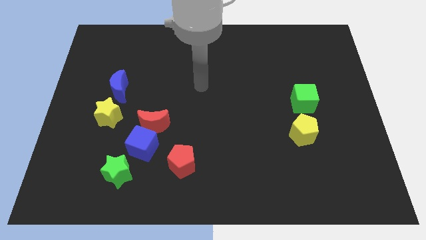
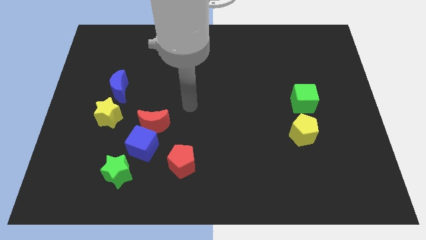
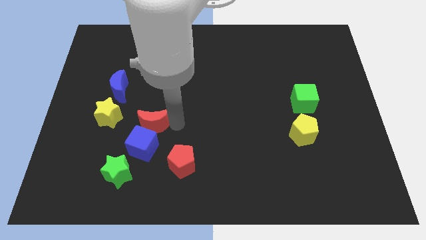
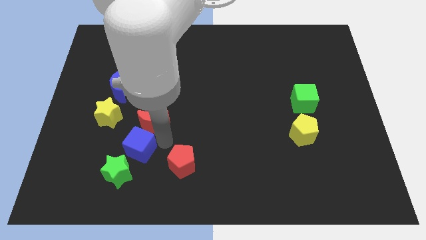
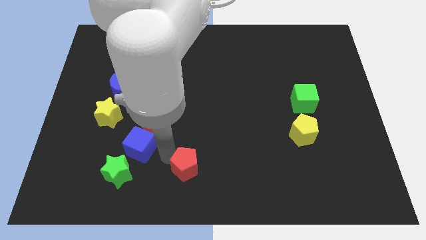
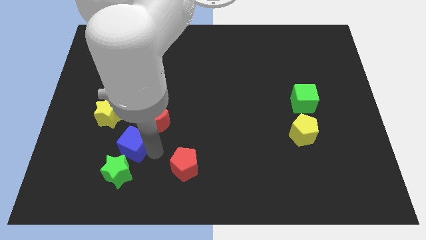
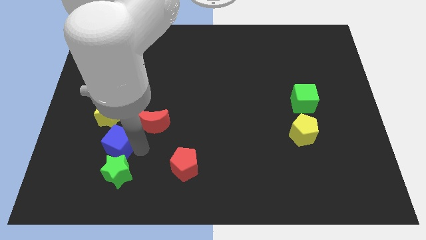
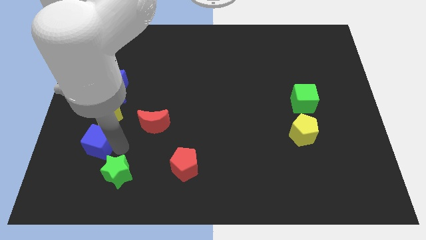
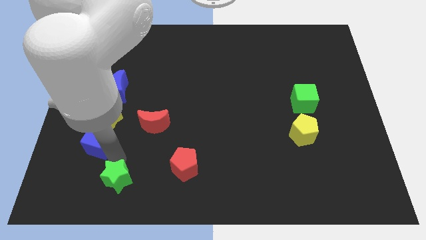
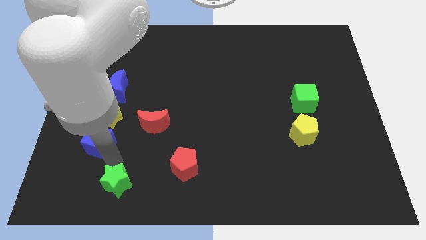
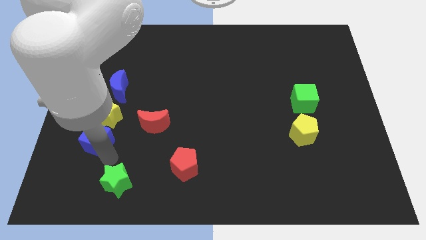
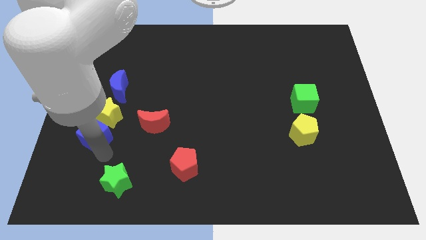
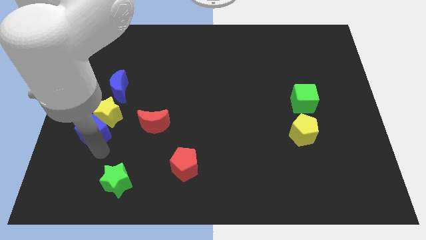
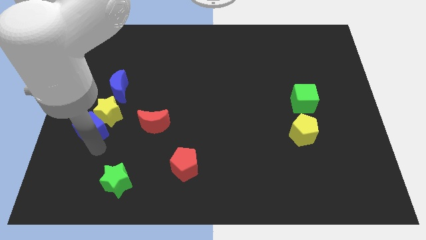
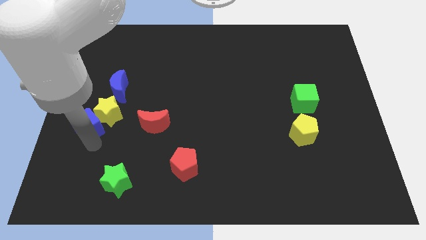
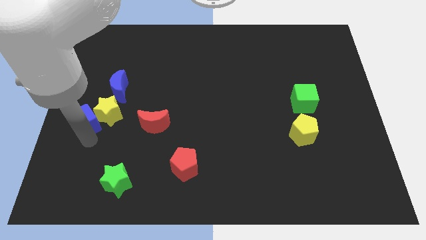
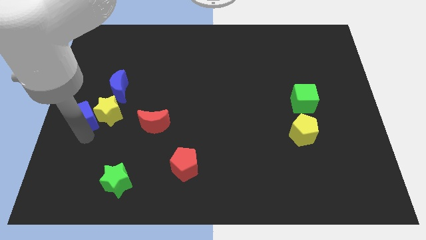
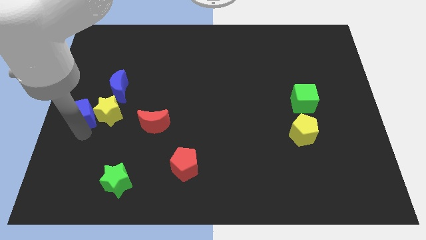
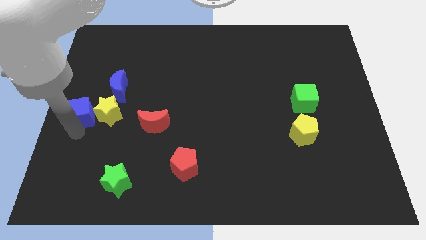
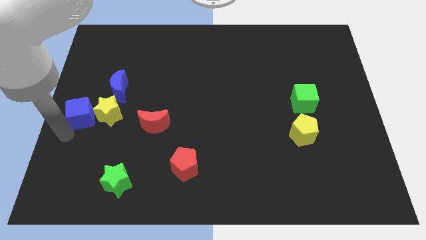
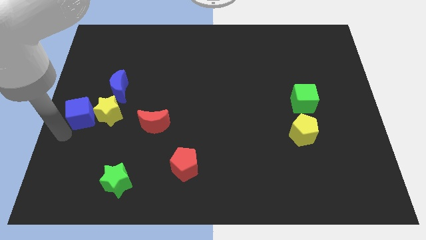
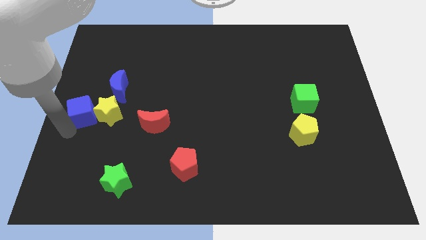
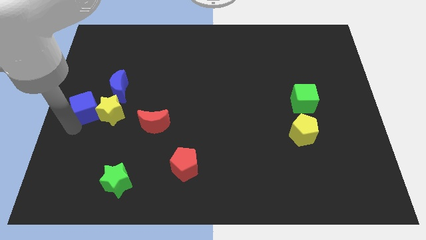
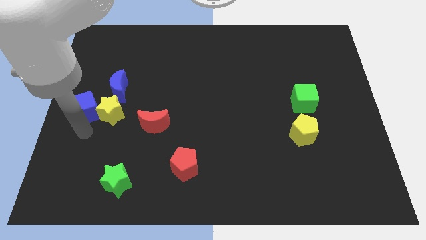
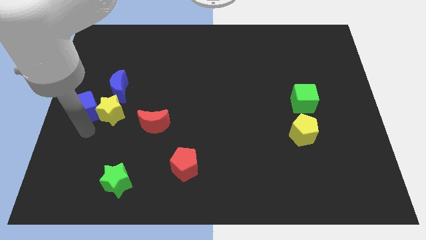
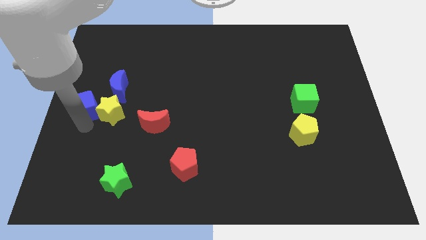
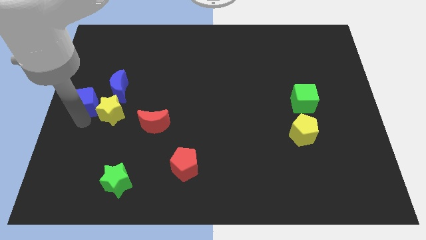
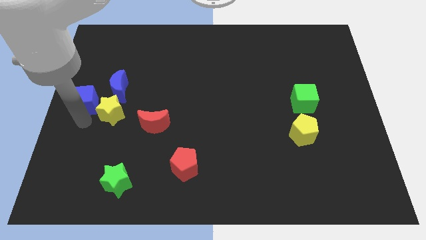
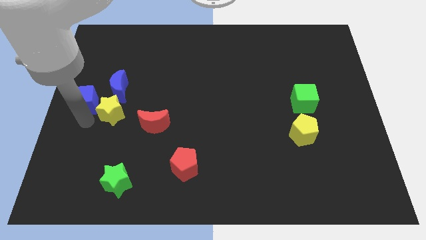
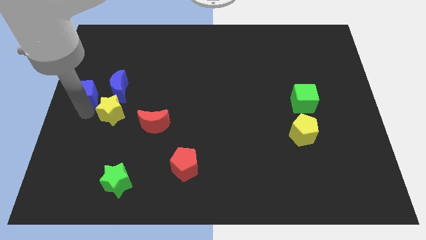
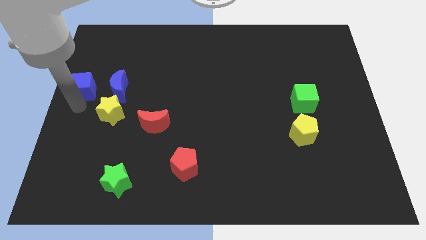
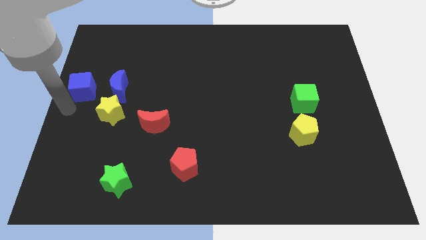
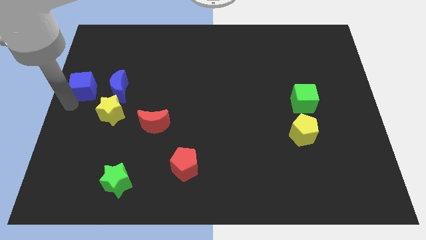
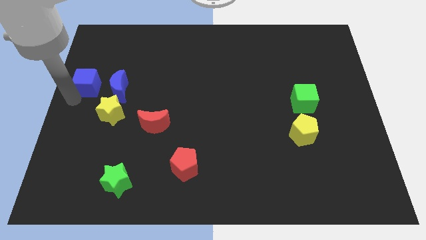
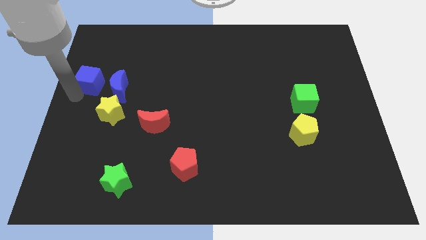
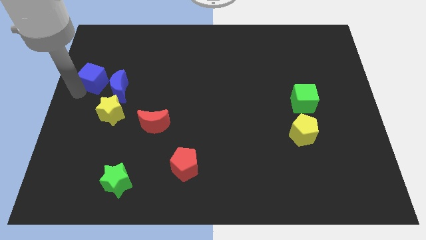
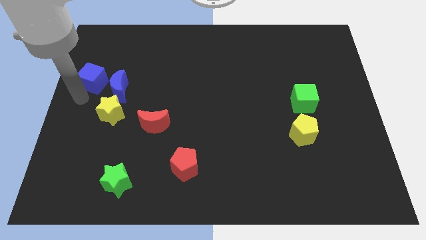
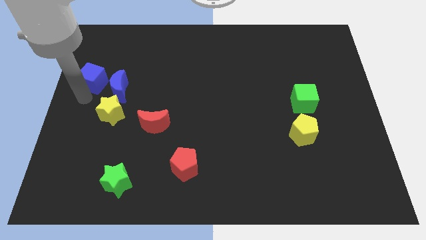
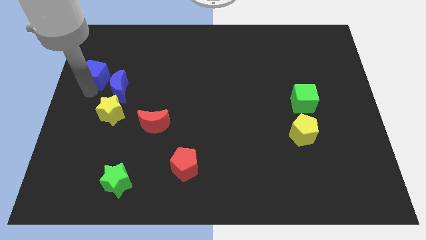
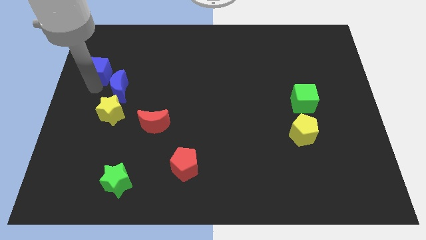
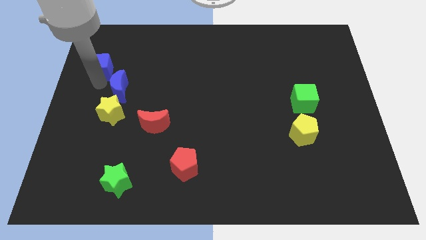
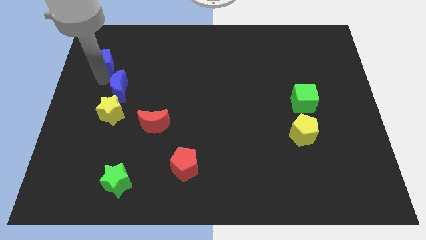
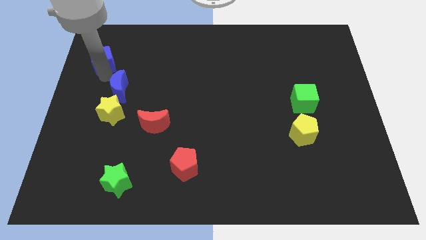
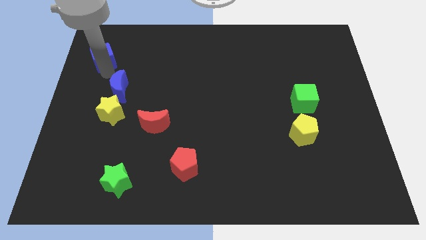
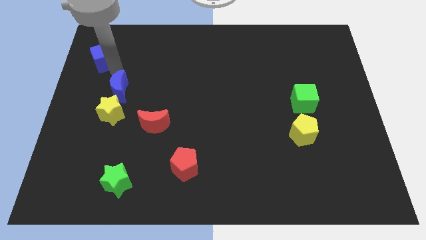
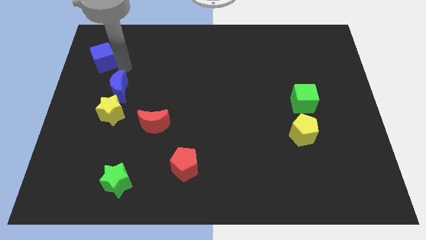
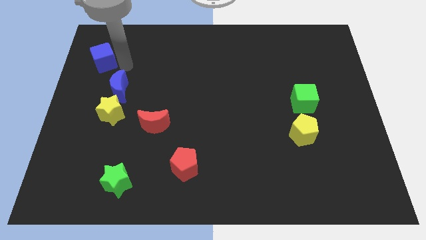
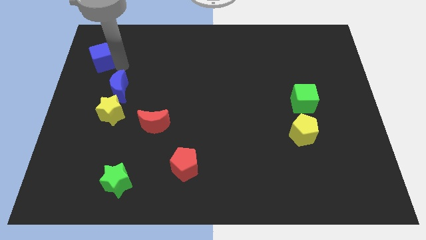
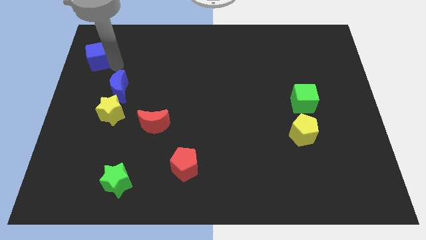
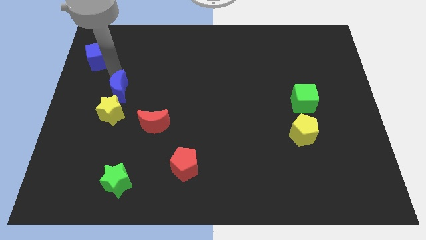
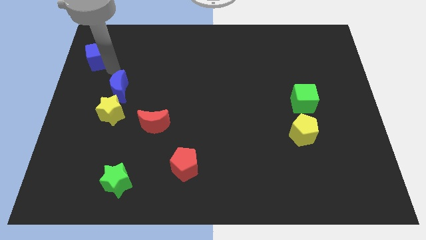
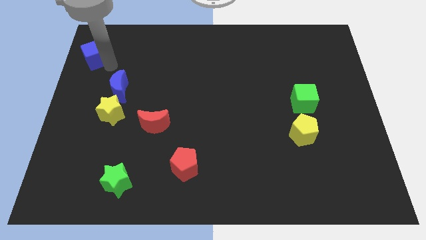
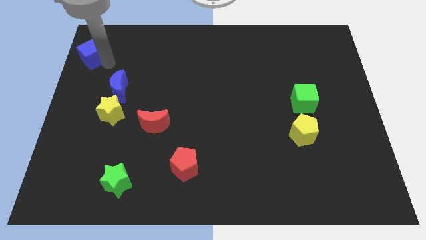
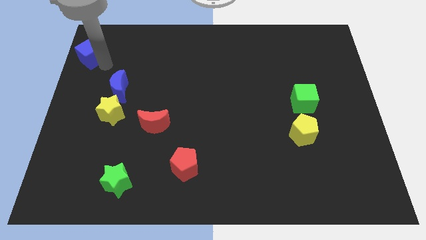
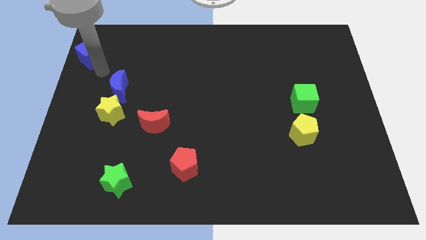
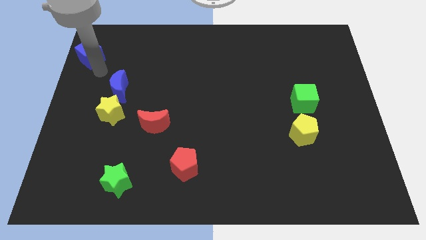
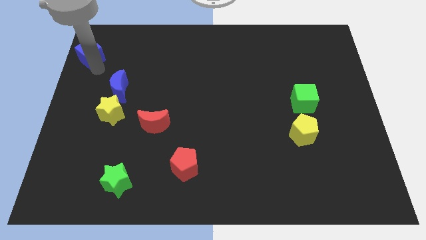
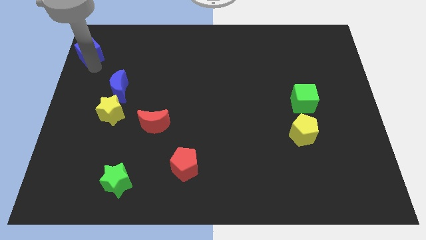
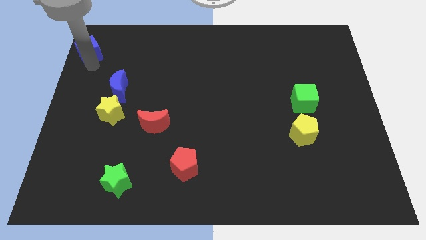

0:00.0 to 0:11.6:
push the blue cube to the upper left corner

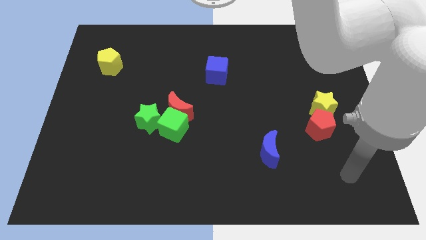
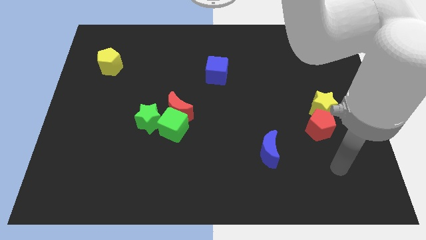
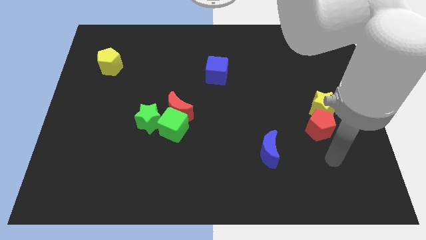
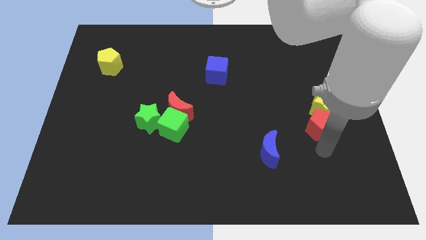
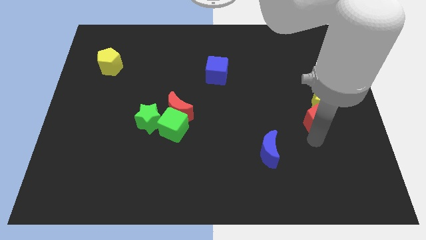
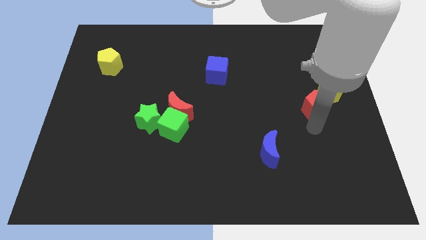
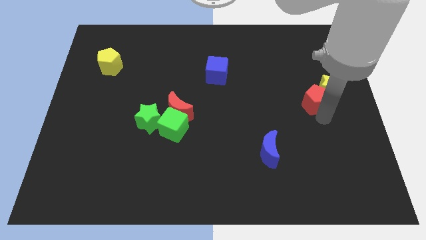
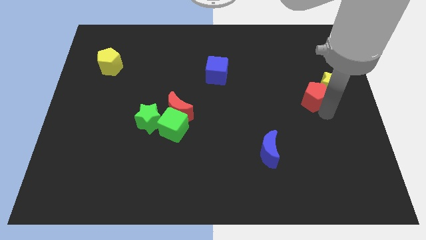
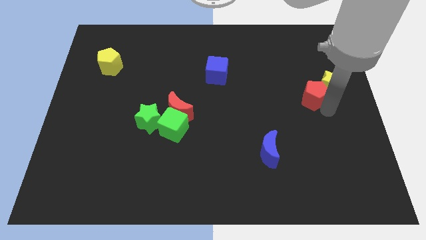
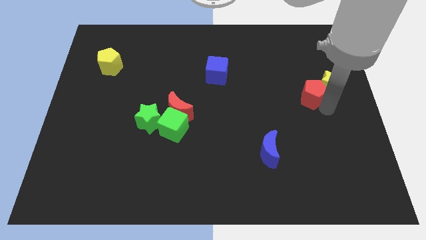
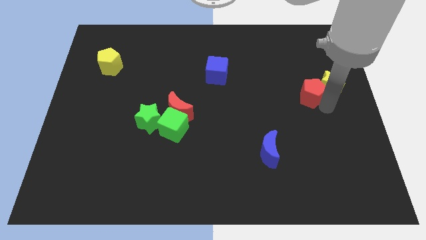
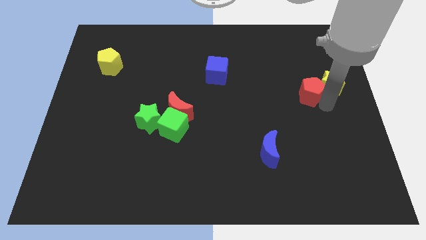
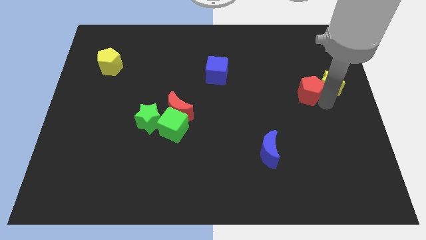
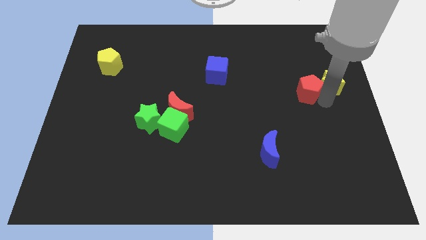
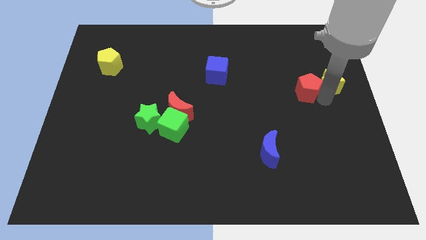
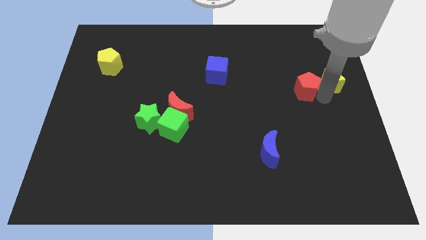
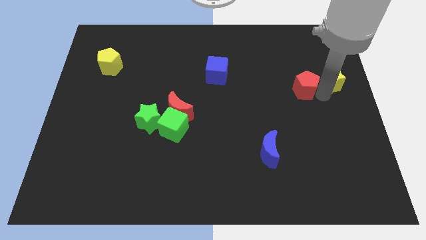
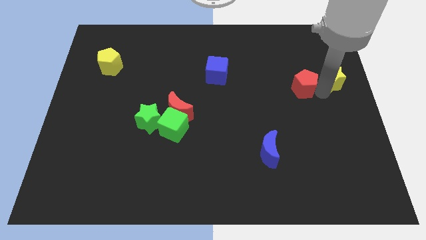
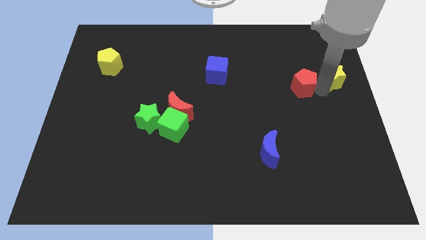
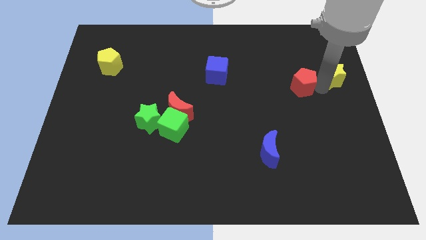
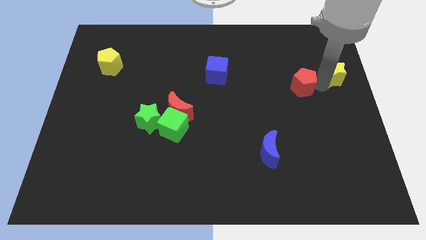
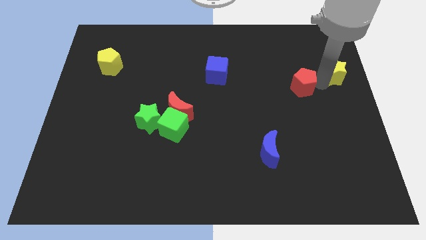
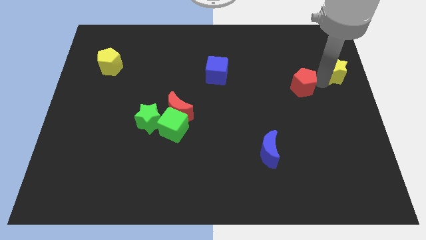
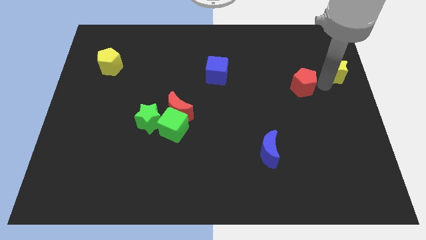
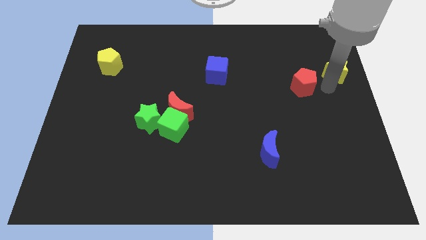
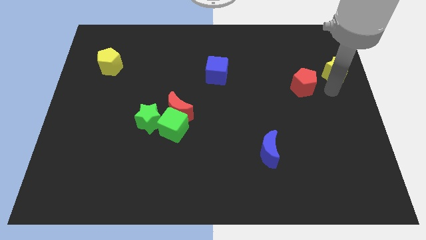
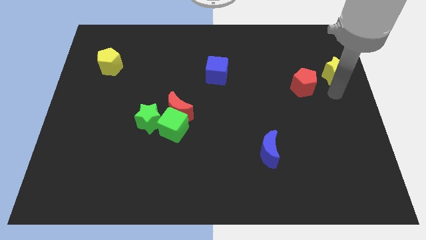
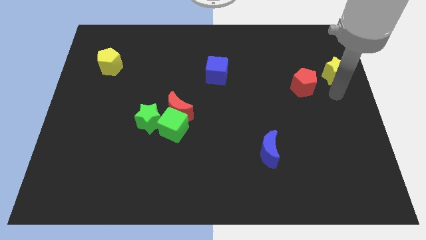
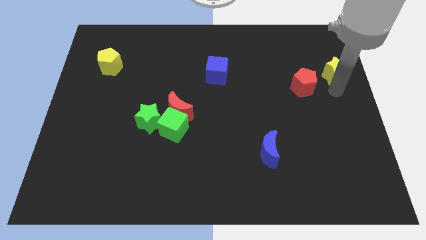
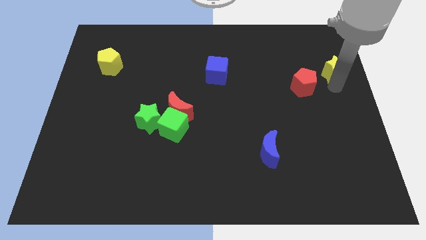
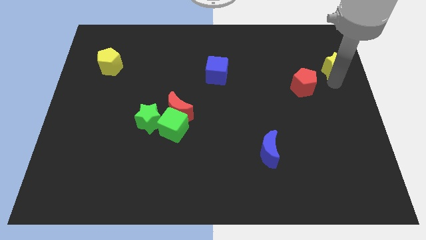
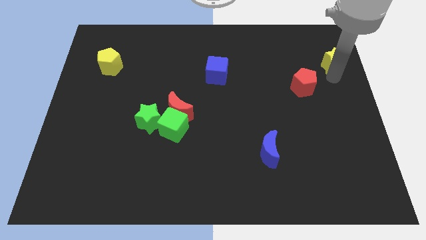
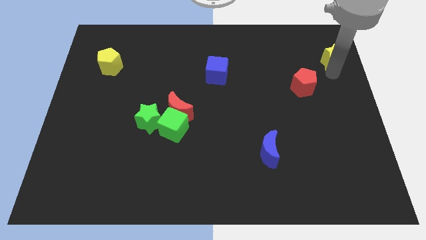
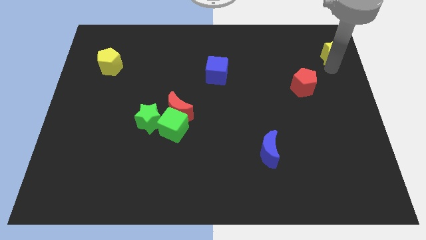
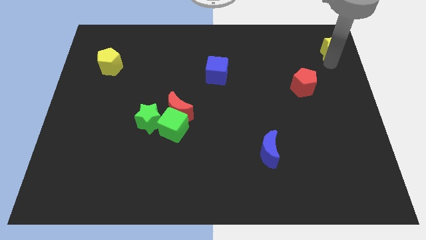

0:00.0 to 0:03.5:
put the yellow star to the top right of the board
